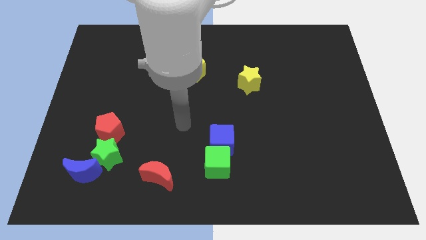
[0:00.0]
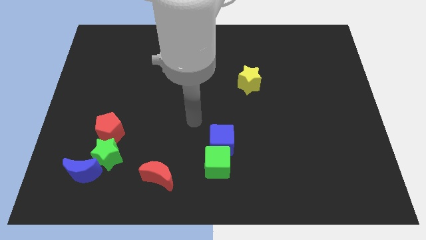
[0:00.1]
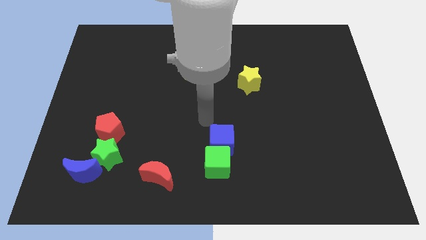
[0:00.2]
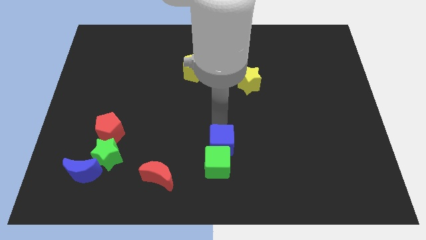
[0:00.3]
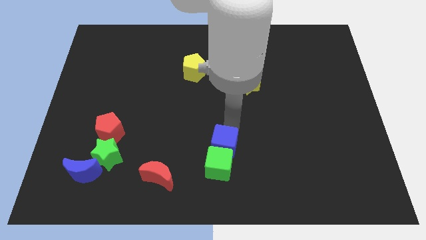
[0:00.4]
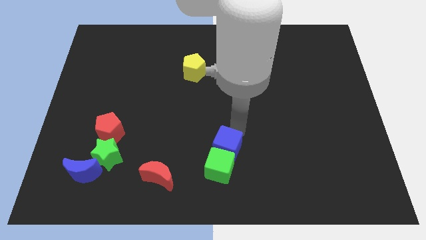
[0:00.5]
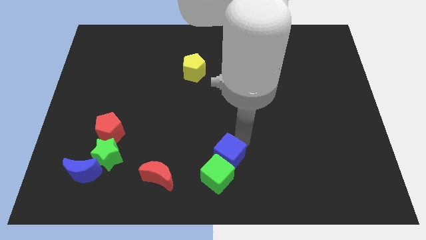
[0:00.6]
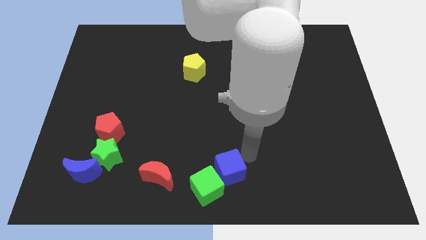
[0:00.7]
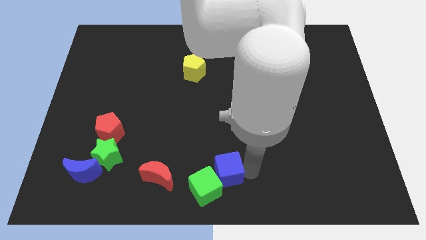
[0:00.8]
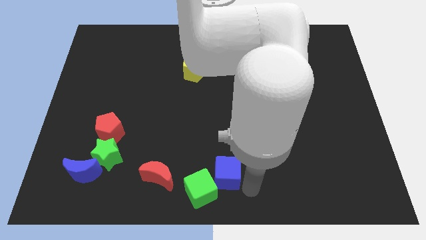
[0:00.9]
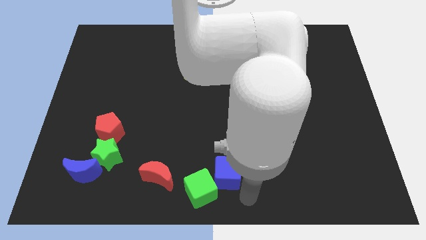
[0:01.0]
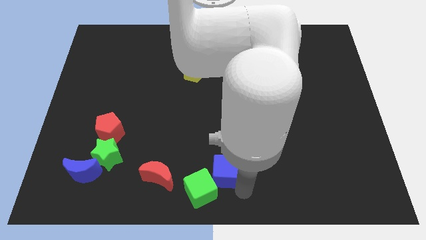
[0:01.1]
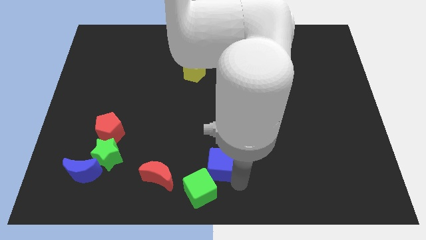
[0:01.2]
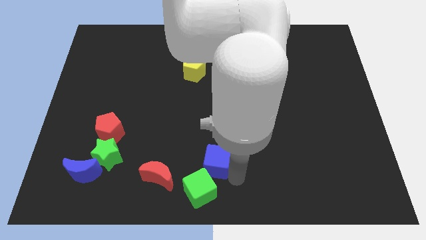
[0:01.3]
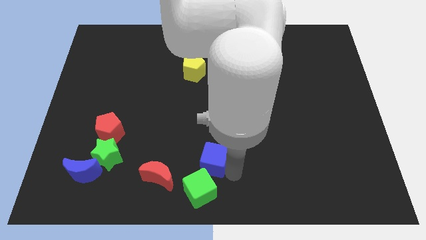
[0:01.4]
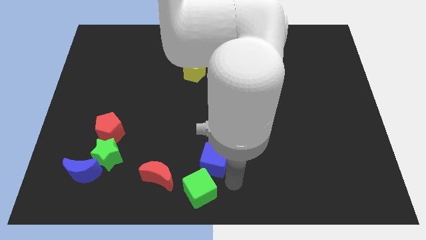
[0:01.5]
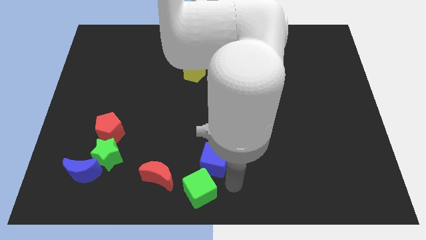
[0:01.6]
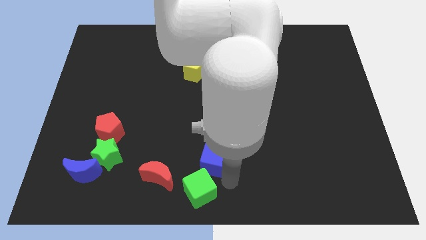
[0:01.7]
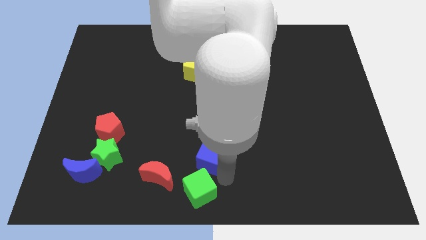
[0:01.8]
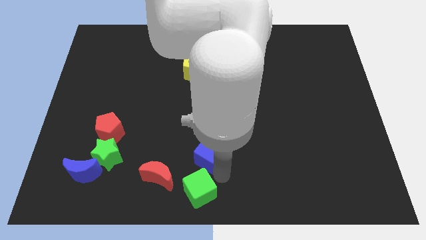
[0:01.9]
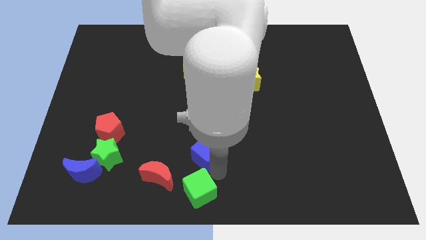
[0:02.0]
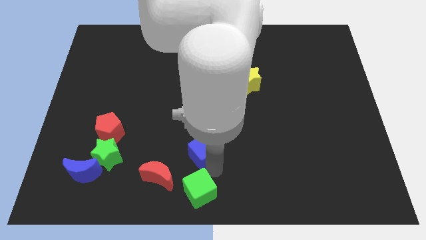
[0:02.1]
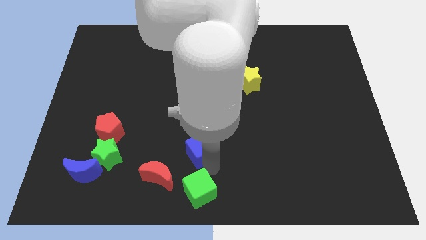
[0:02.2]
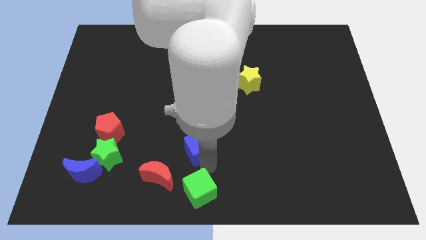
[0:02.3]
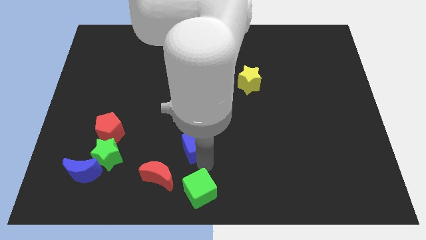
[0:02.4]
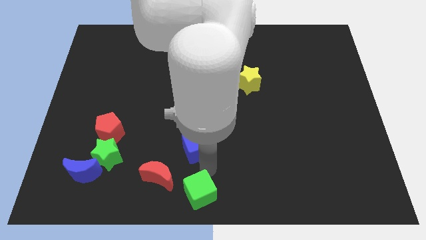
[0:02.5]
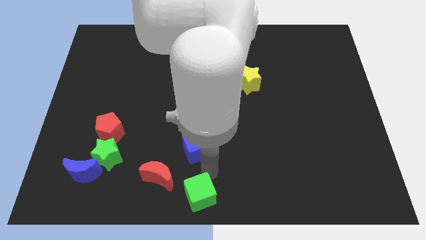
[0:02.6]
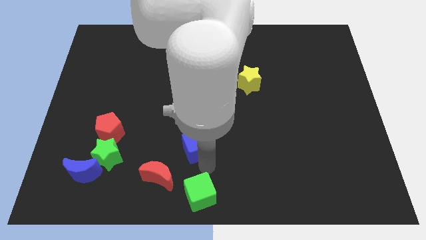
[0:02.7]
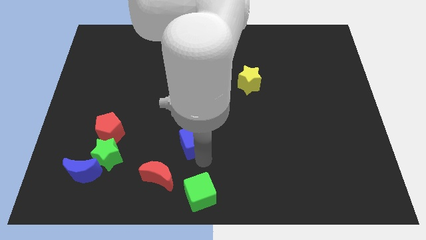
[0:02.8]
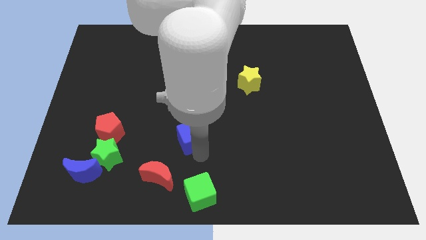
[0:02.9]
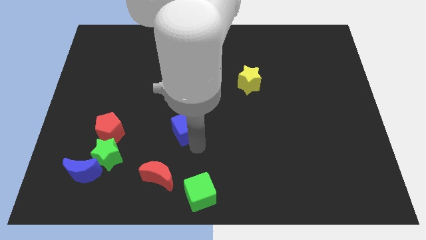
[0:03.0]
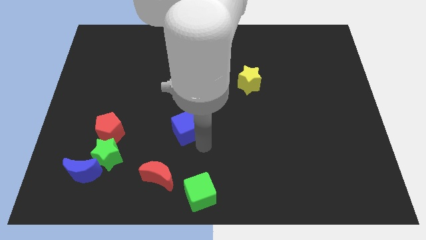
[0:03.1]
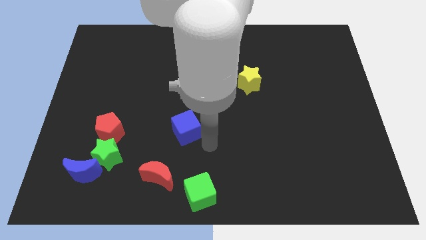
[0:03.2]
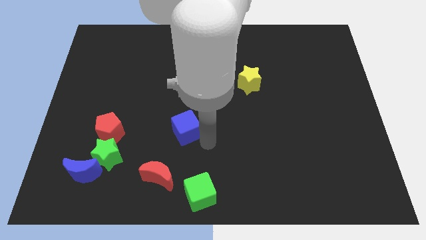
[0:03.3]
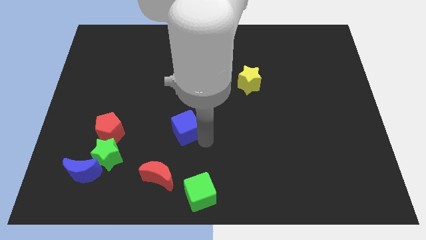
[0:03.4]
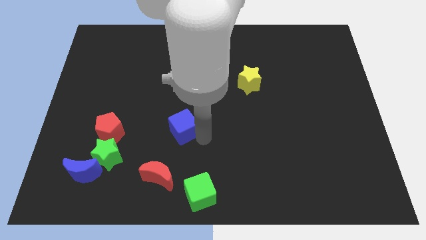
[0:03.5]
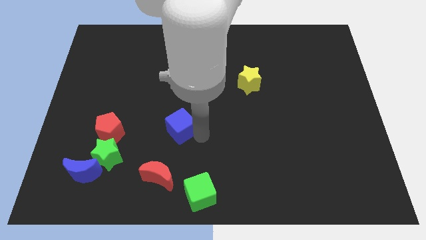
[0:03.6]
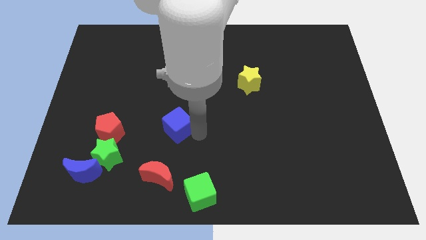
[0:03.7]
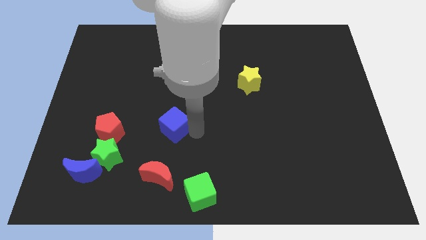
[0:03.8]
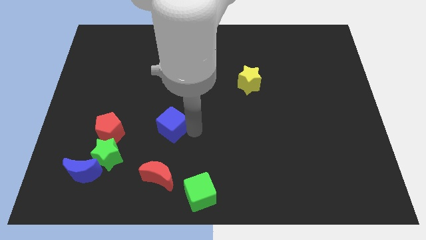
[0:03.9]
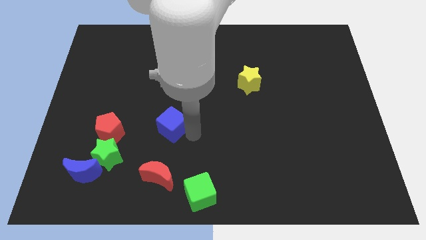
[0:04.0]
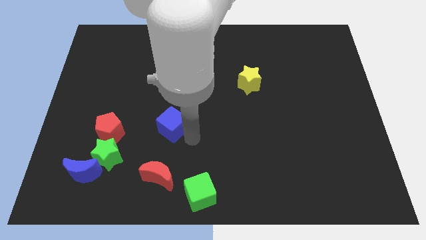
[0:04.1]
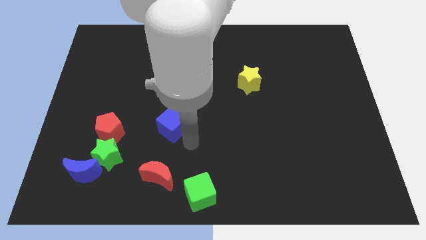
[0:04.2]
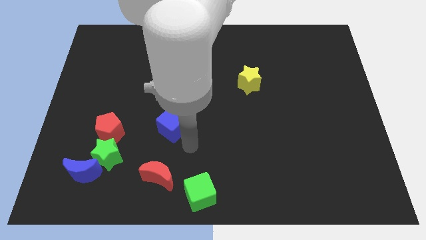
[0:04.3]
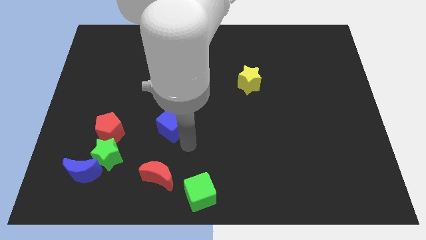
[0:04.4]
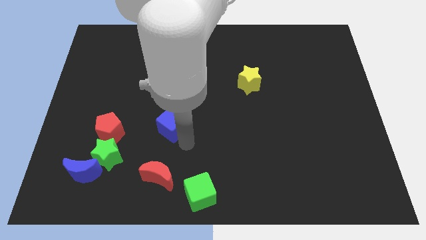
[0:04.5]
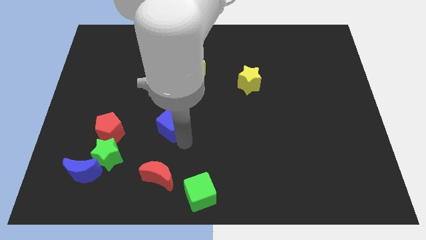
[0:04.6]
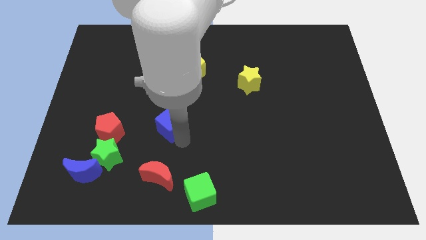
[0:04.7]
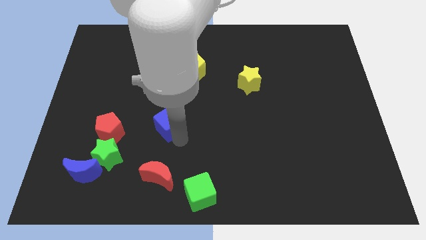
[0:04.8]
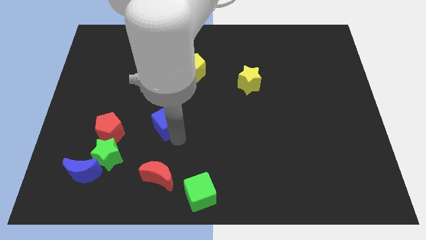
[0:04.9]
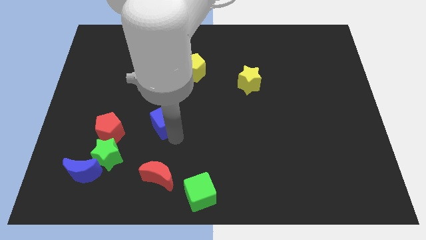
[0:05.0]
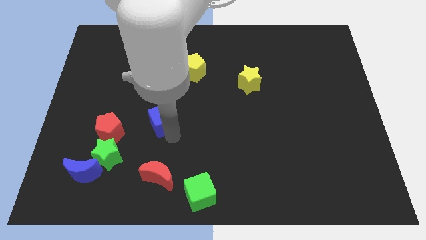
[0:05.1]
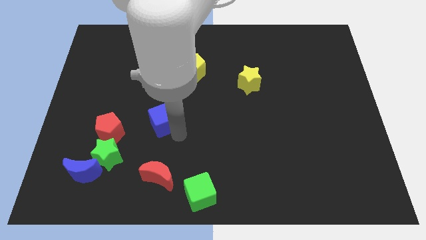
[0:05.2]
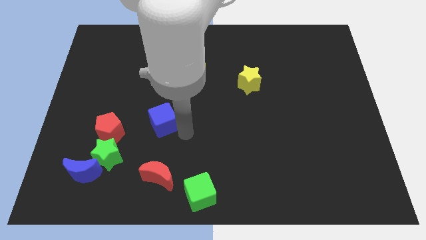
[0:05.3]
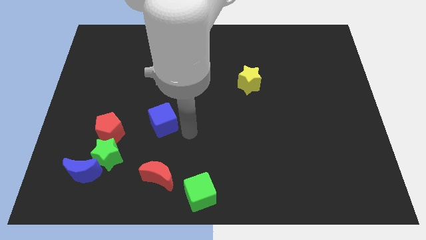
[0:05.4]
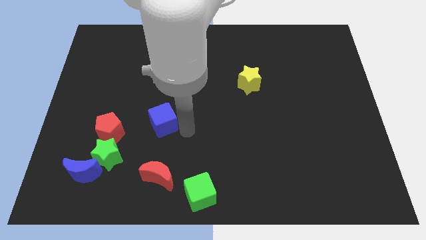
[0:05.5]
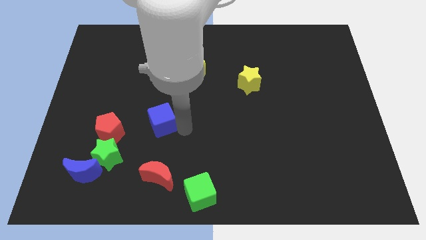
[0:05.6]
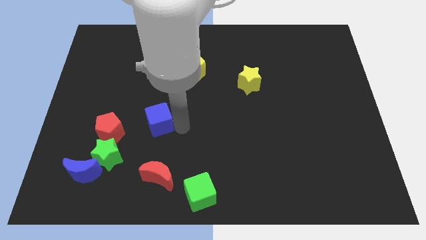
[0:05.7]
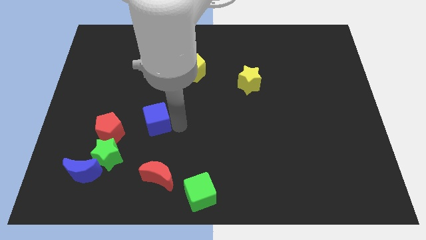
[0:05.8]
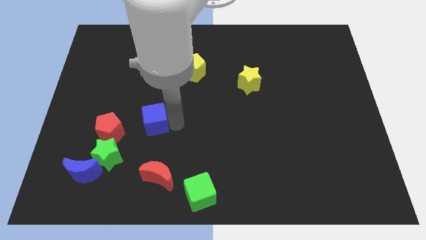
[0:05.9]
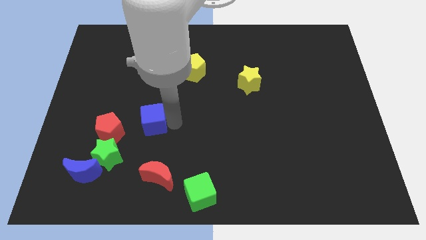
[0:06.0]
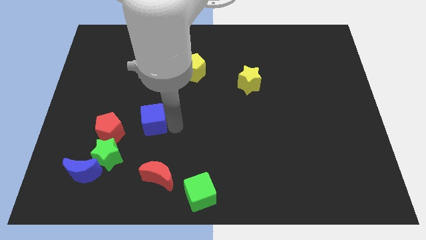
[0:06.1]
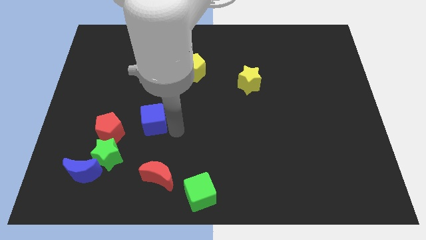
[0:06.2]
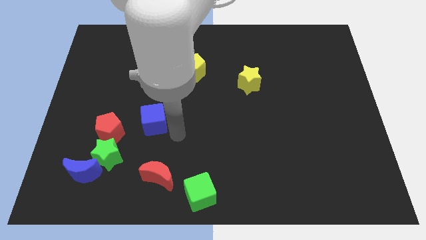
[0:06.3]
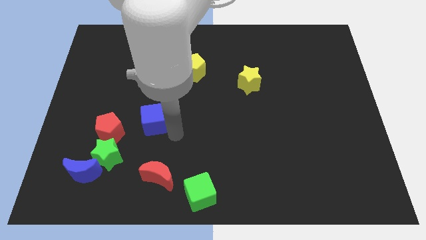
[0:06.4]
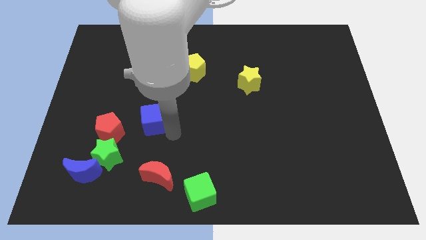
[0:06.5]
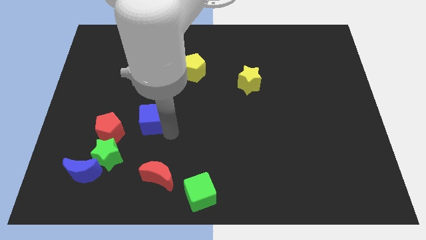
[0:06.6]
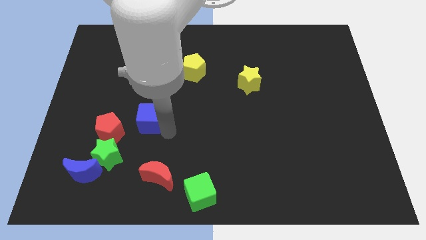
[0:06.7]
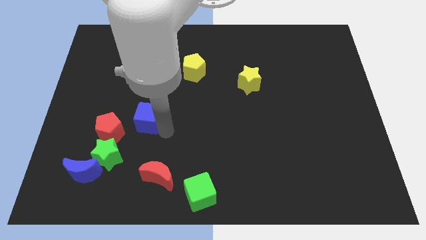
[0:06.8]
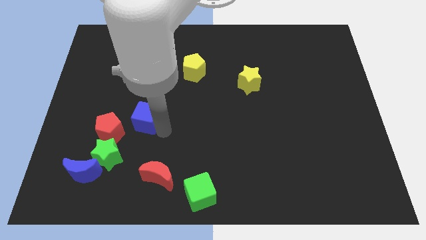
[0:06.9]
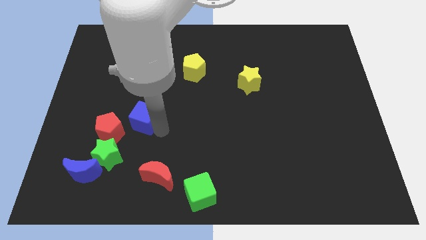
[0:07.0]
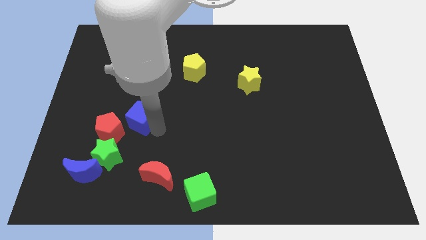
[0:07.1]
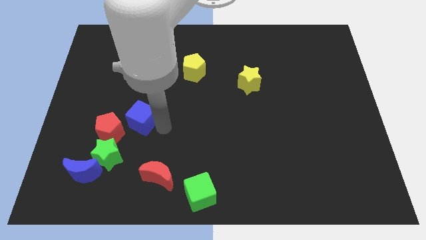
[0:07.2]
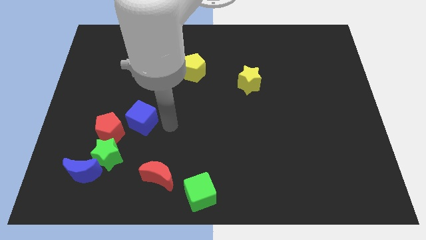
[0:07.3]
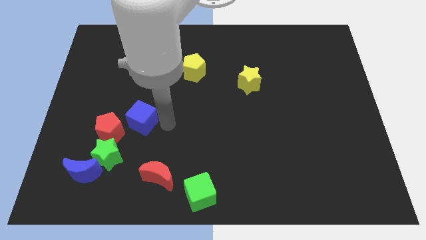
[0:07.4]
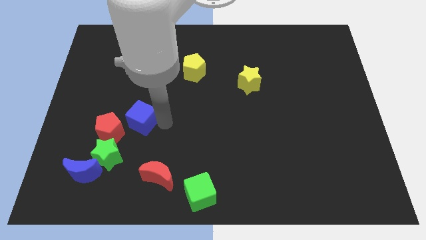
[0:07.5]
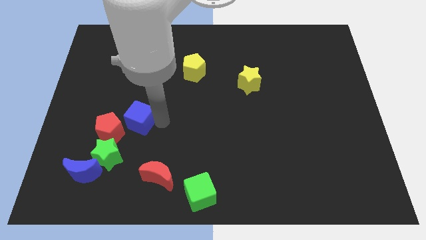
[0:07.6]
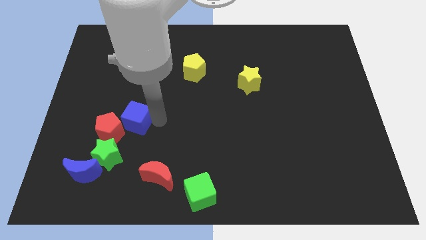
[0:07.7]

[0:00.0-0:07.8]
put the blue cube to the top side of the green star
